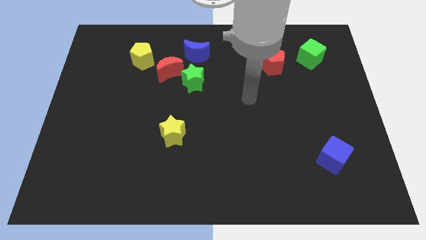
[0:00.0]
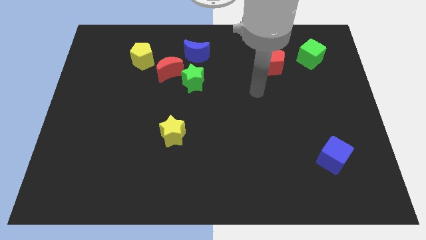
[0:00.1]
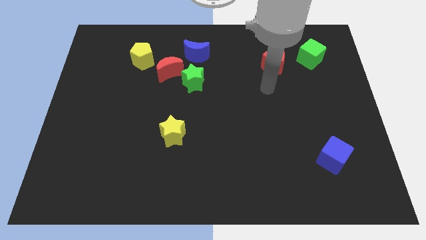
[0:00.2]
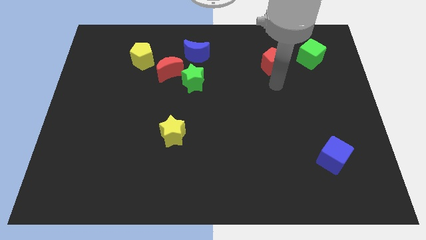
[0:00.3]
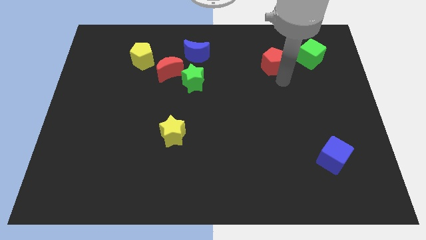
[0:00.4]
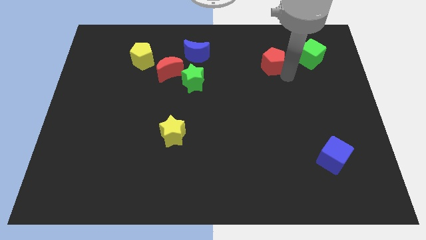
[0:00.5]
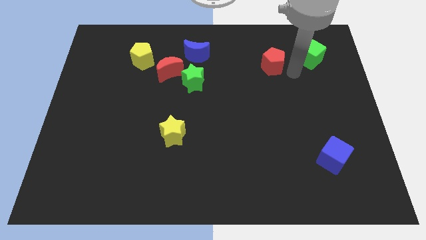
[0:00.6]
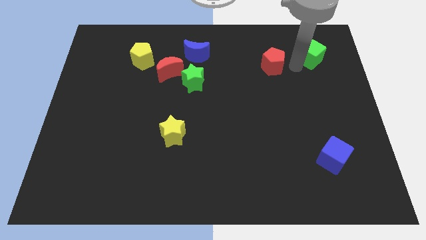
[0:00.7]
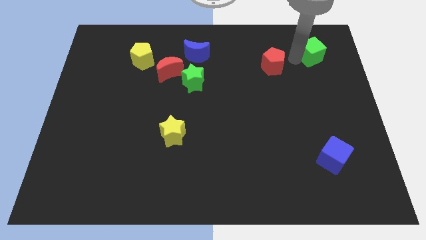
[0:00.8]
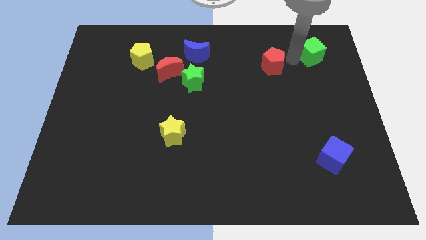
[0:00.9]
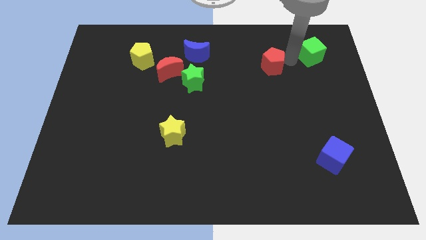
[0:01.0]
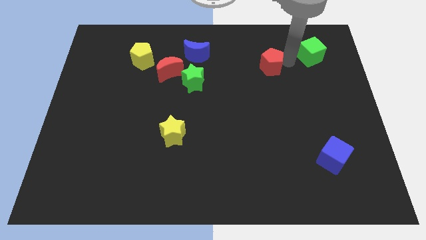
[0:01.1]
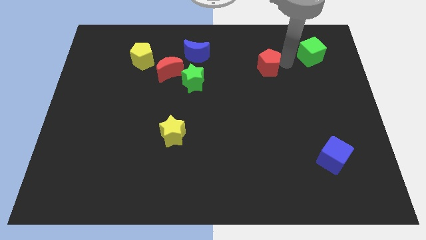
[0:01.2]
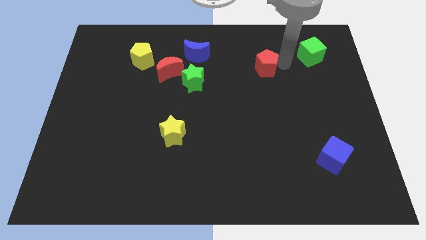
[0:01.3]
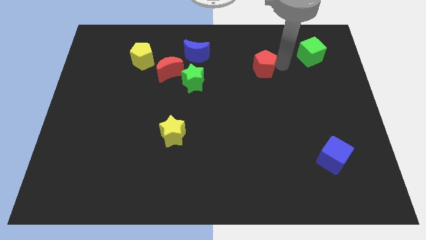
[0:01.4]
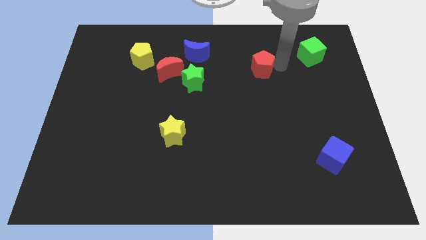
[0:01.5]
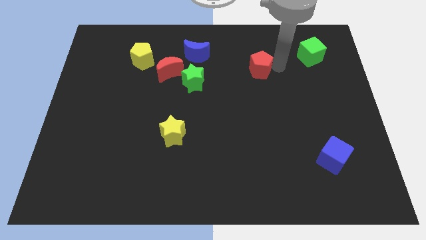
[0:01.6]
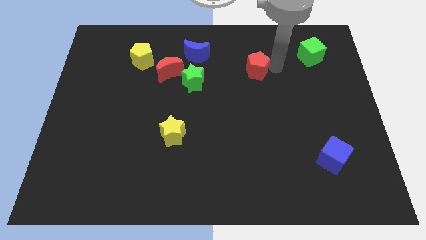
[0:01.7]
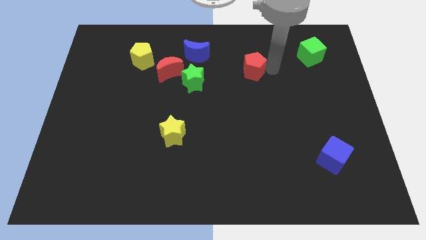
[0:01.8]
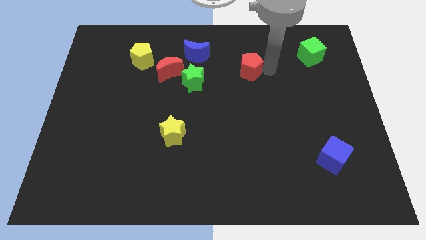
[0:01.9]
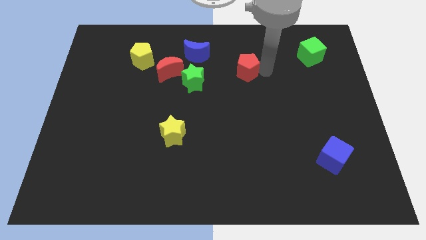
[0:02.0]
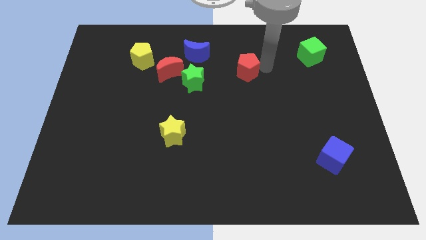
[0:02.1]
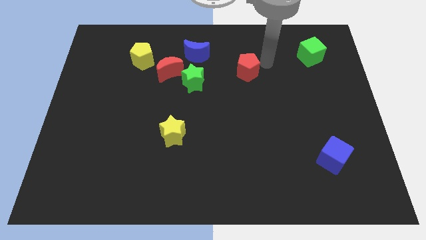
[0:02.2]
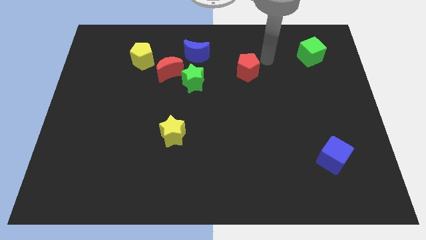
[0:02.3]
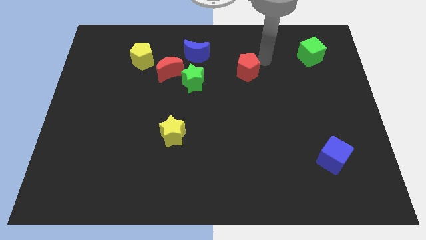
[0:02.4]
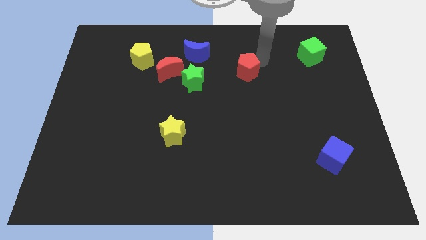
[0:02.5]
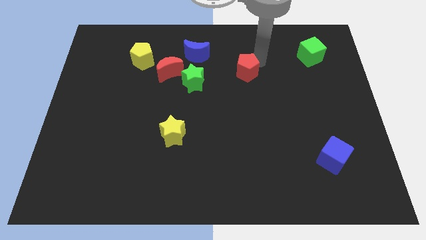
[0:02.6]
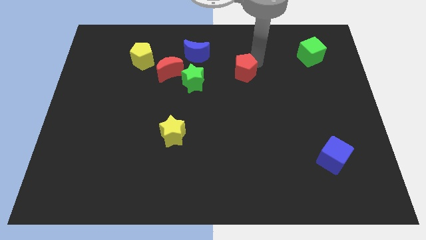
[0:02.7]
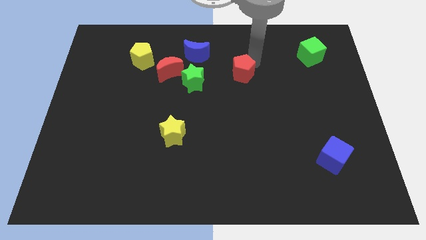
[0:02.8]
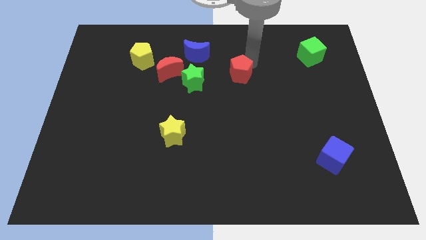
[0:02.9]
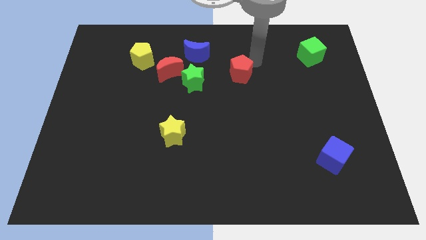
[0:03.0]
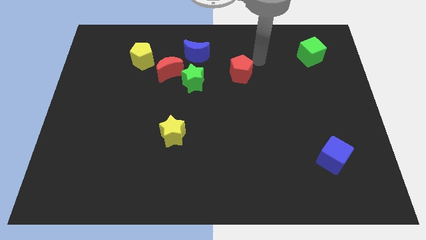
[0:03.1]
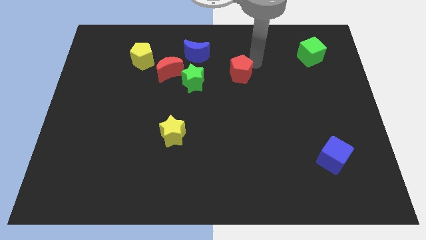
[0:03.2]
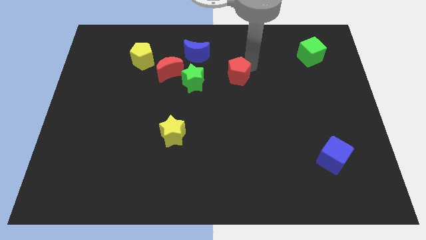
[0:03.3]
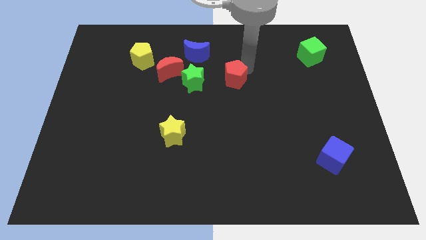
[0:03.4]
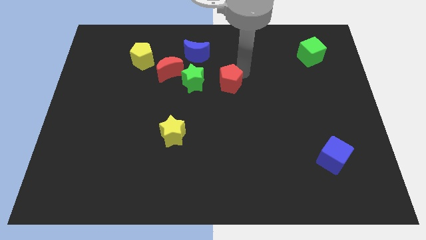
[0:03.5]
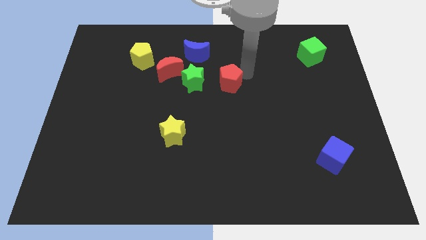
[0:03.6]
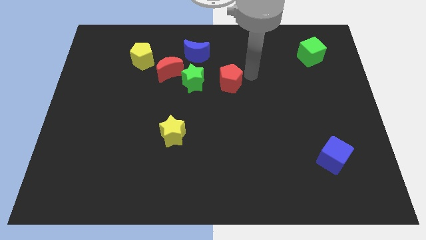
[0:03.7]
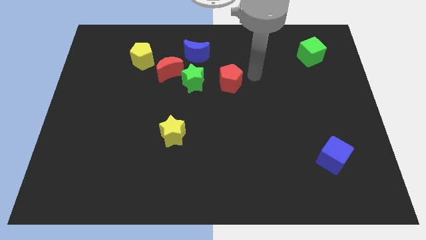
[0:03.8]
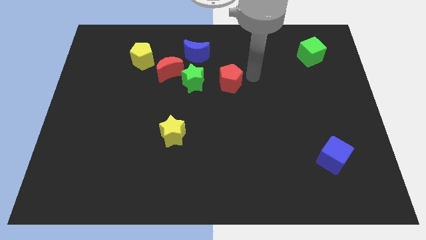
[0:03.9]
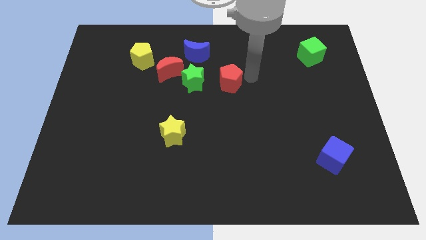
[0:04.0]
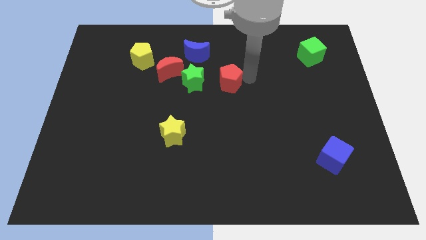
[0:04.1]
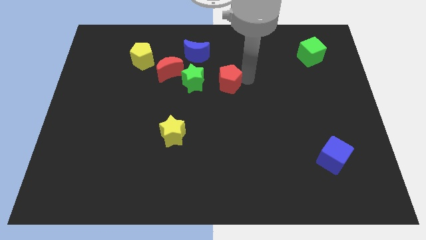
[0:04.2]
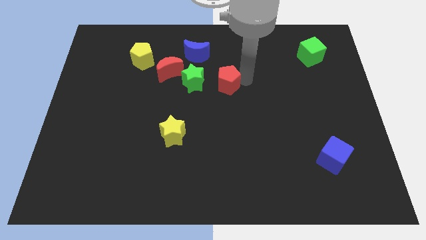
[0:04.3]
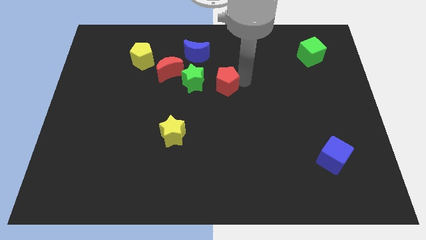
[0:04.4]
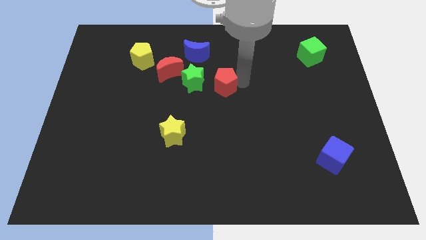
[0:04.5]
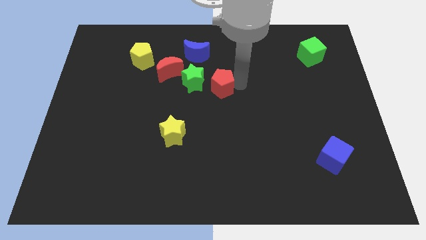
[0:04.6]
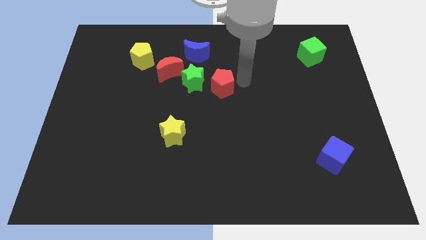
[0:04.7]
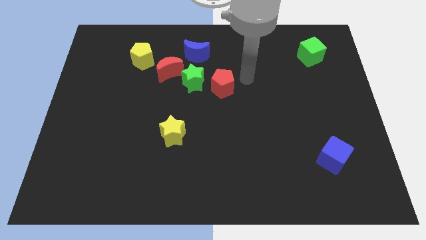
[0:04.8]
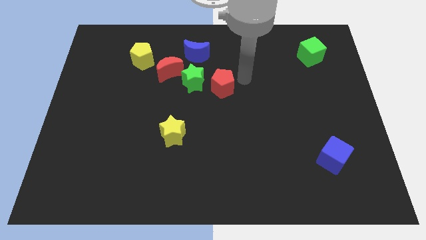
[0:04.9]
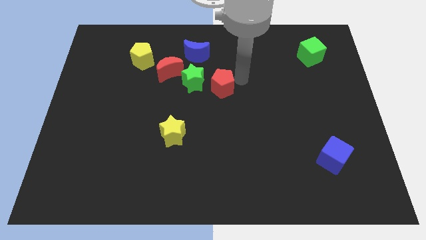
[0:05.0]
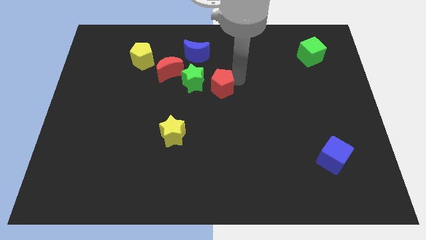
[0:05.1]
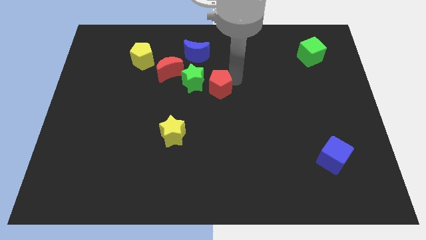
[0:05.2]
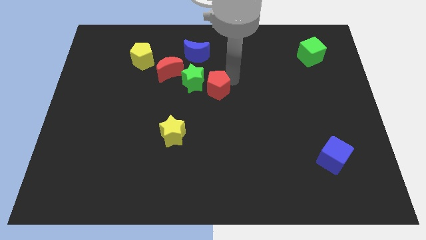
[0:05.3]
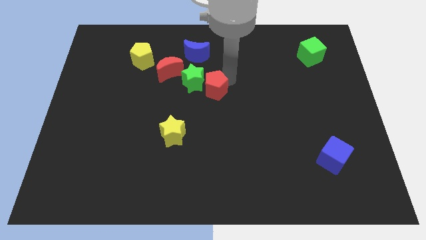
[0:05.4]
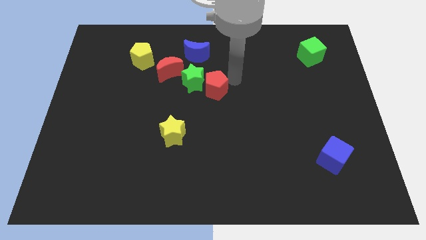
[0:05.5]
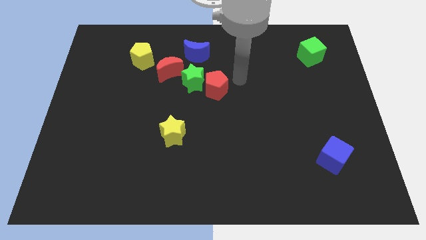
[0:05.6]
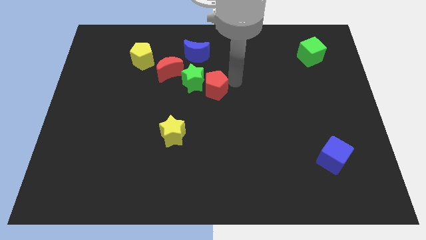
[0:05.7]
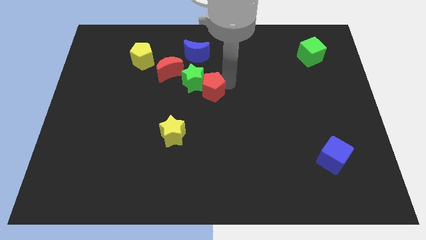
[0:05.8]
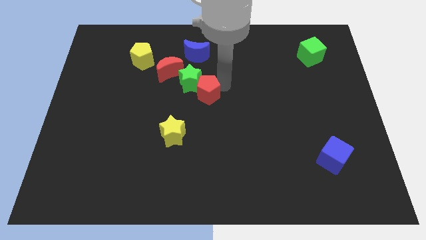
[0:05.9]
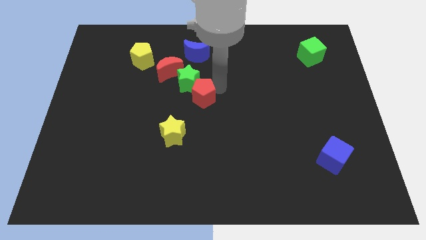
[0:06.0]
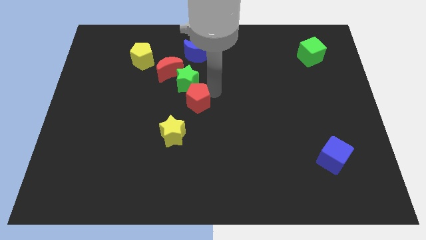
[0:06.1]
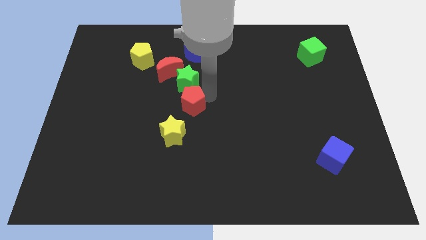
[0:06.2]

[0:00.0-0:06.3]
put the red pentagon to the top side of the yellow star

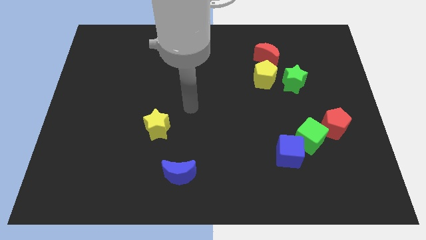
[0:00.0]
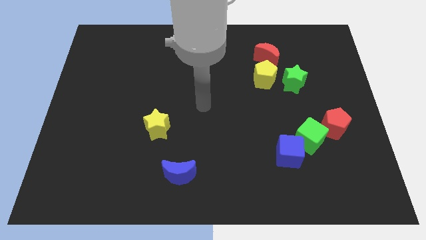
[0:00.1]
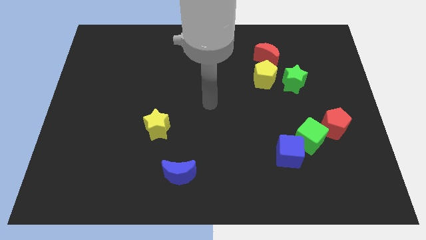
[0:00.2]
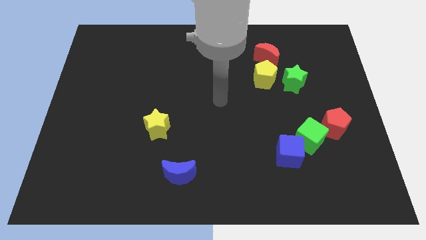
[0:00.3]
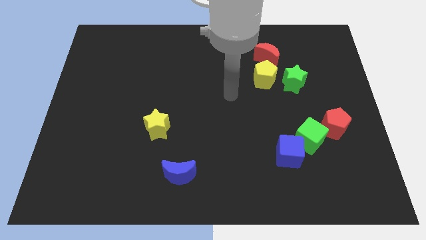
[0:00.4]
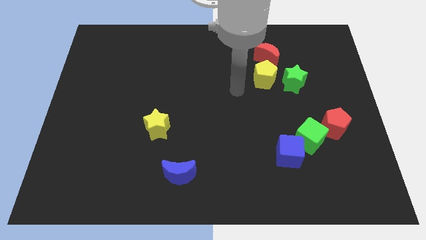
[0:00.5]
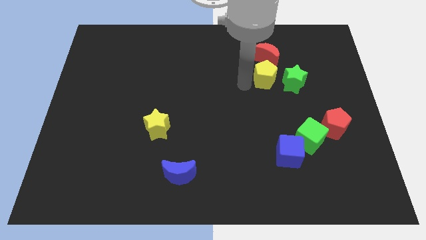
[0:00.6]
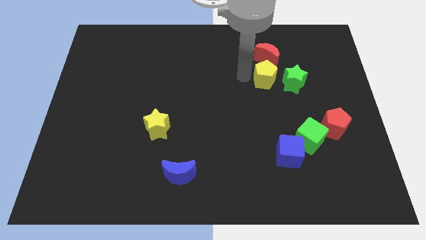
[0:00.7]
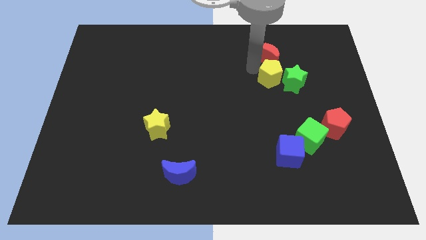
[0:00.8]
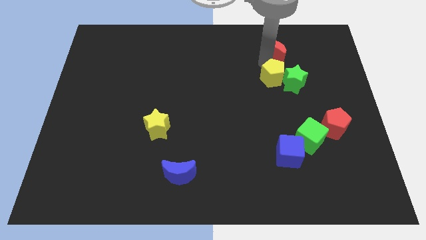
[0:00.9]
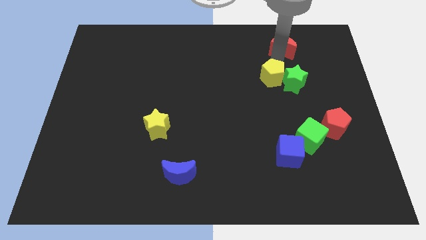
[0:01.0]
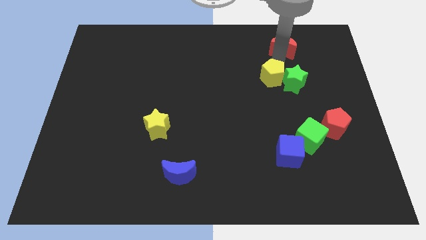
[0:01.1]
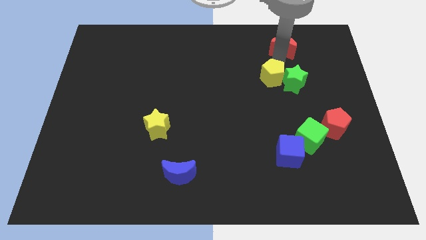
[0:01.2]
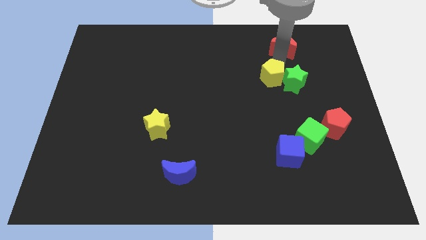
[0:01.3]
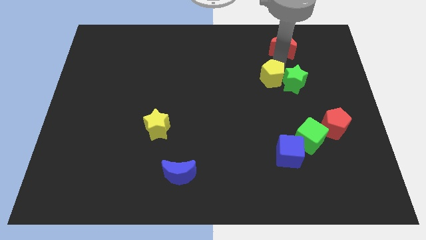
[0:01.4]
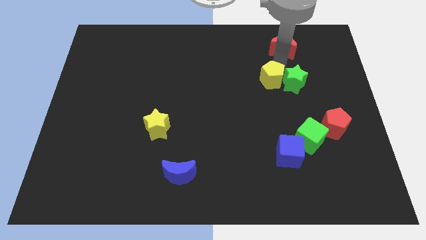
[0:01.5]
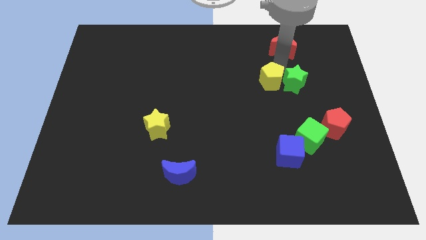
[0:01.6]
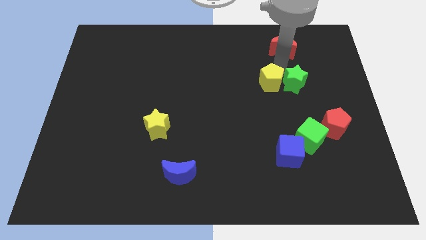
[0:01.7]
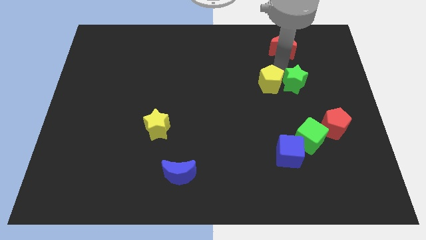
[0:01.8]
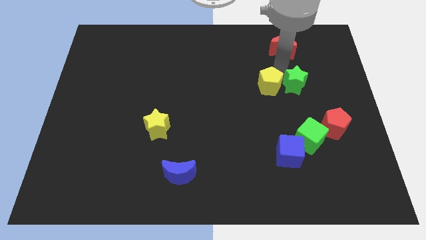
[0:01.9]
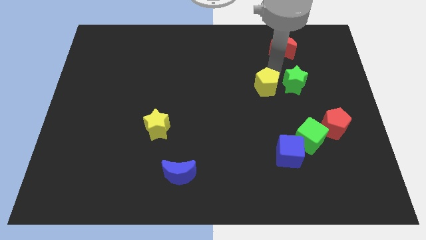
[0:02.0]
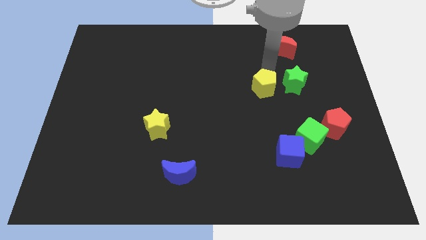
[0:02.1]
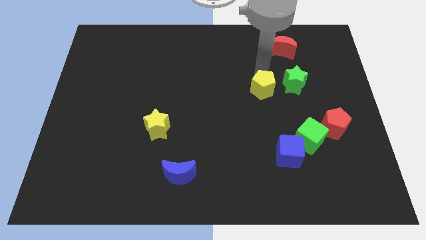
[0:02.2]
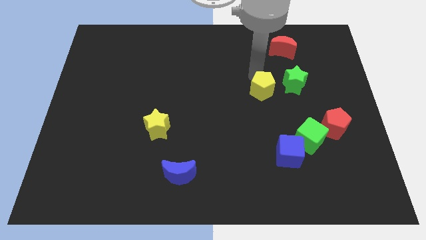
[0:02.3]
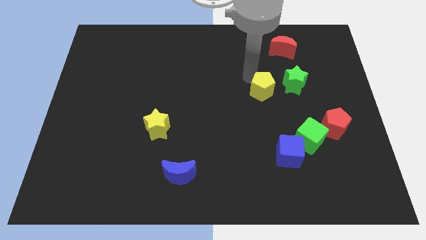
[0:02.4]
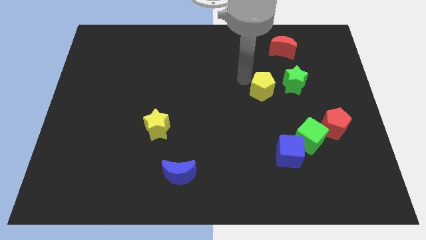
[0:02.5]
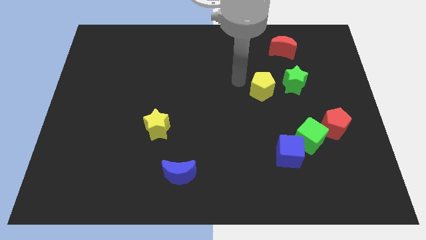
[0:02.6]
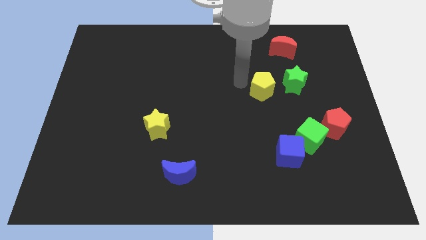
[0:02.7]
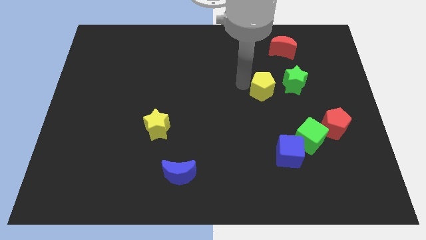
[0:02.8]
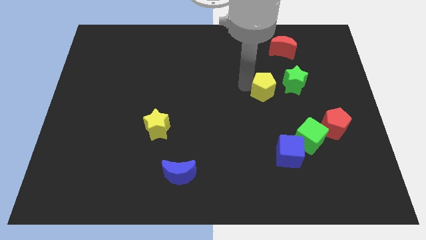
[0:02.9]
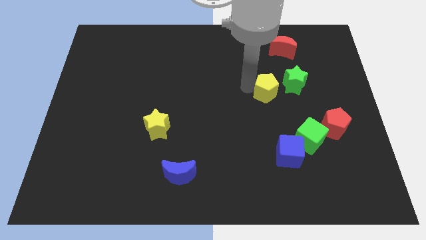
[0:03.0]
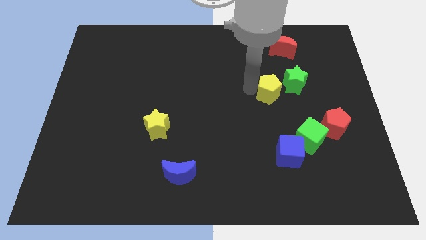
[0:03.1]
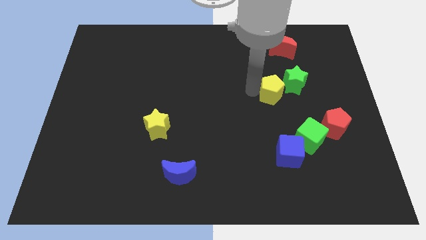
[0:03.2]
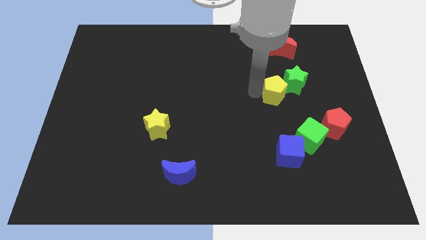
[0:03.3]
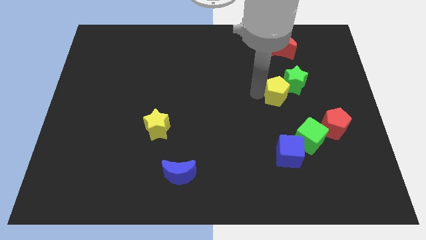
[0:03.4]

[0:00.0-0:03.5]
push the yellow pentagon below the green star
